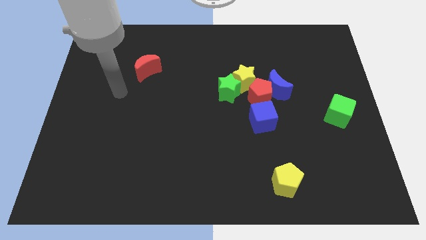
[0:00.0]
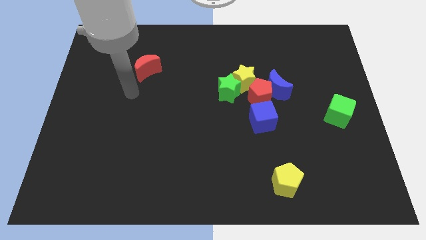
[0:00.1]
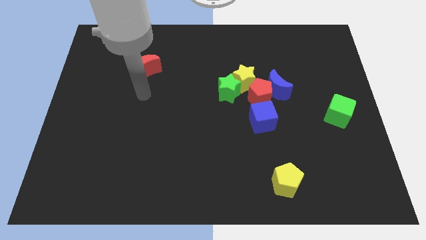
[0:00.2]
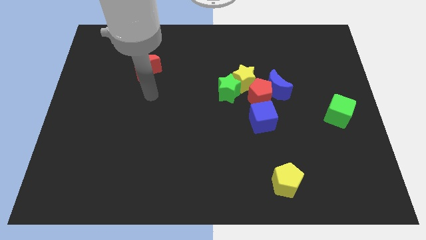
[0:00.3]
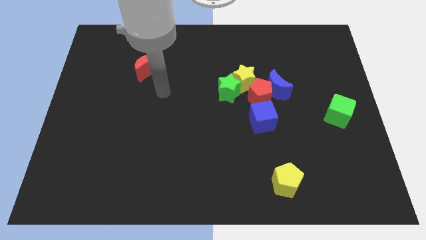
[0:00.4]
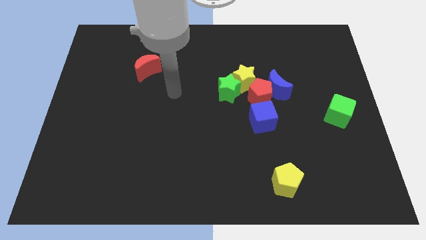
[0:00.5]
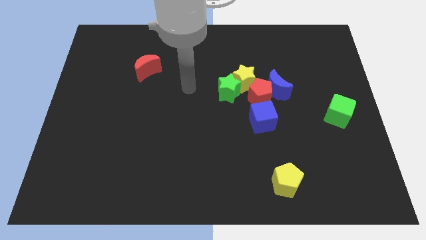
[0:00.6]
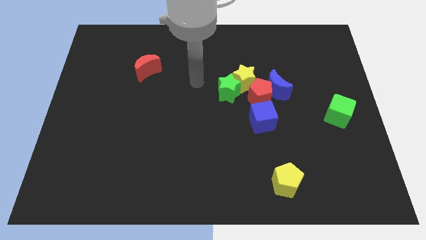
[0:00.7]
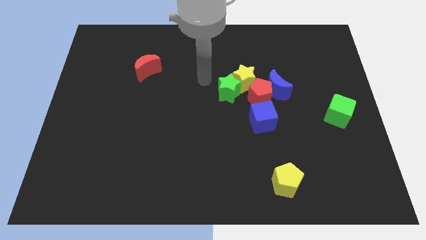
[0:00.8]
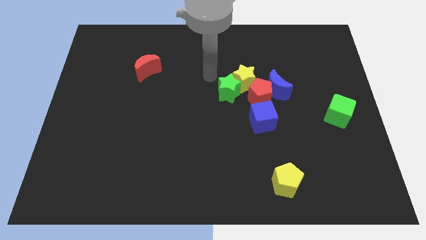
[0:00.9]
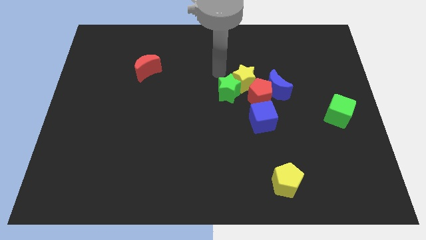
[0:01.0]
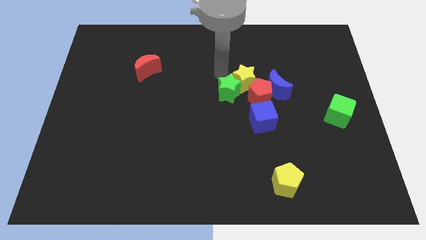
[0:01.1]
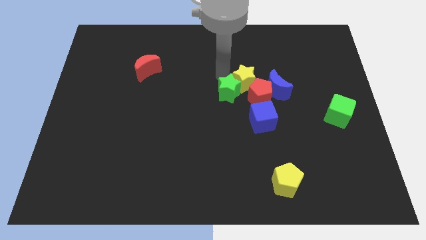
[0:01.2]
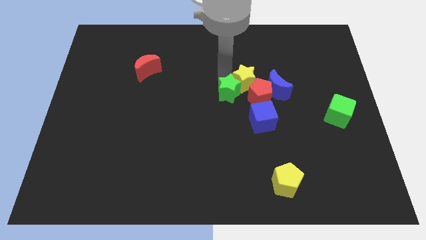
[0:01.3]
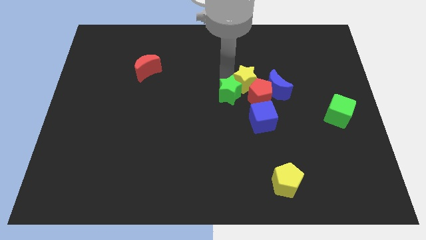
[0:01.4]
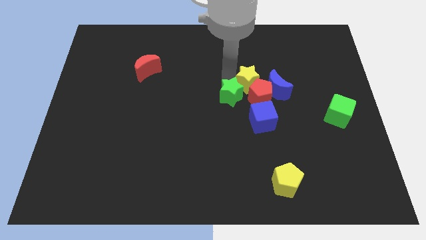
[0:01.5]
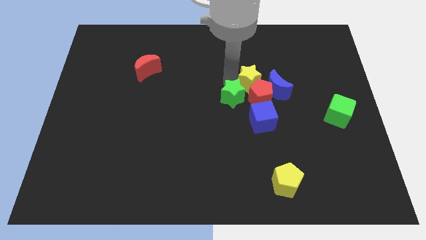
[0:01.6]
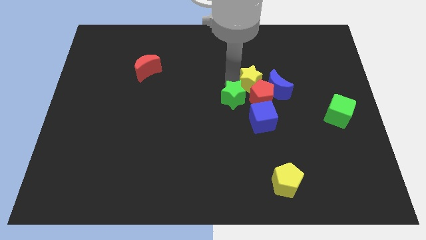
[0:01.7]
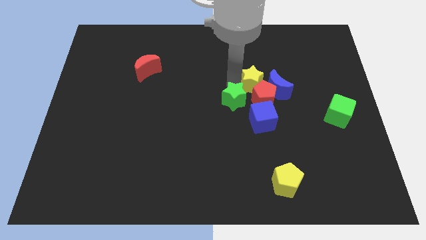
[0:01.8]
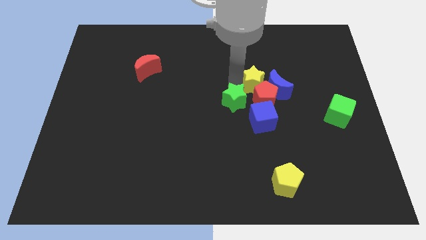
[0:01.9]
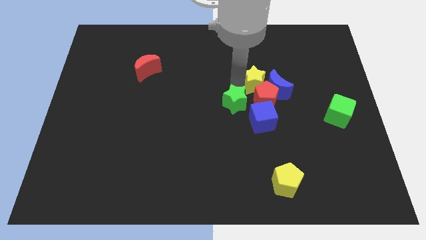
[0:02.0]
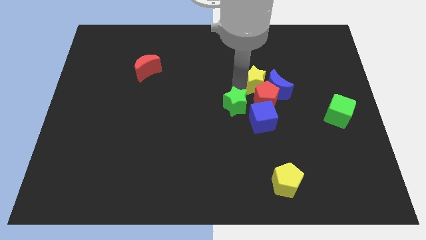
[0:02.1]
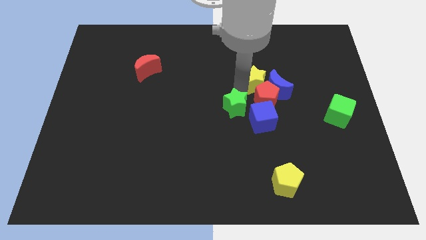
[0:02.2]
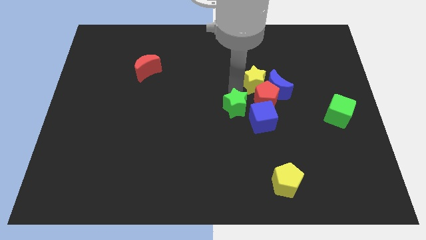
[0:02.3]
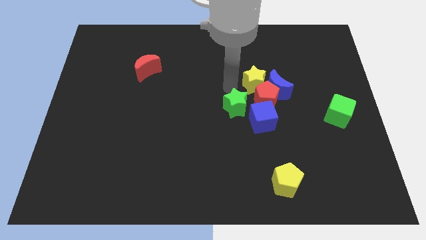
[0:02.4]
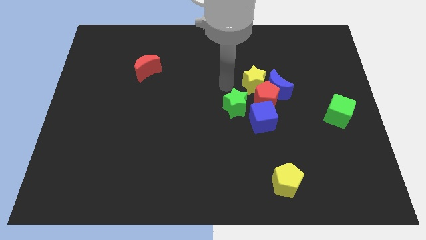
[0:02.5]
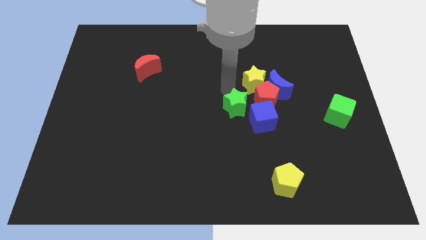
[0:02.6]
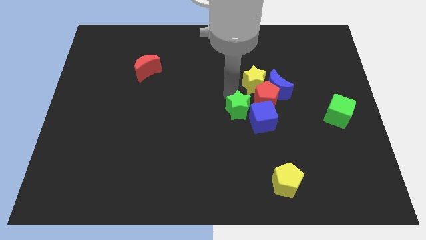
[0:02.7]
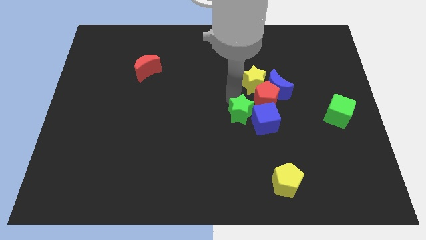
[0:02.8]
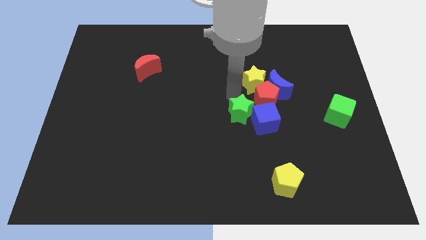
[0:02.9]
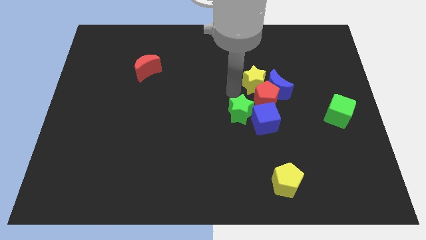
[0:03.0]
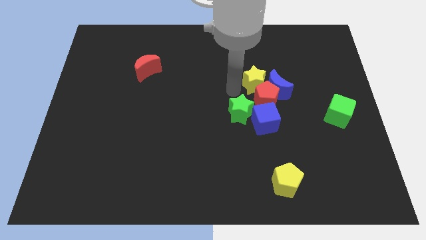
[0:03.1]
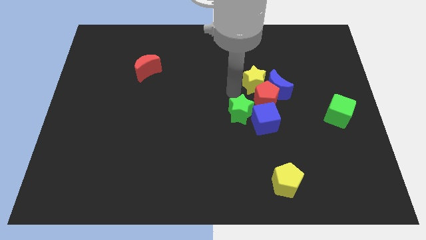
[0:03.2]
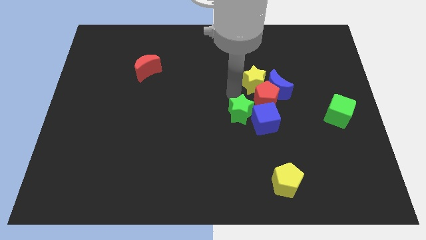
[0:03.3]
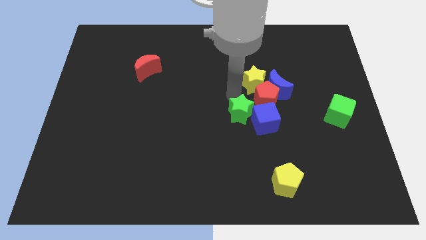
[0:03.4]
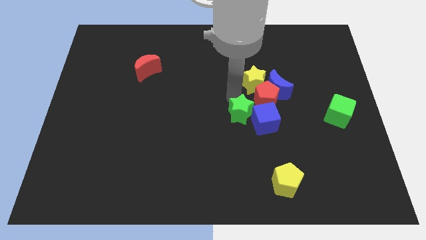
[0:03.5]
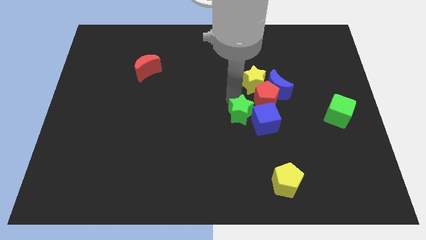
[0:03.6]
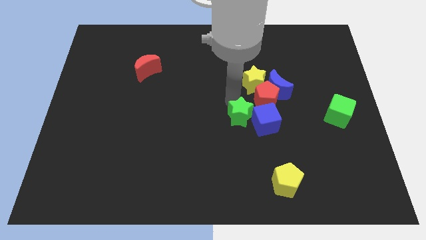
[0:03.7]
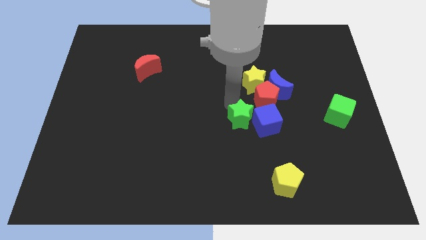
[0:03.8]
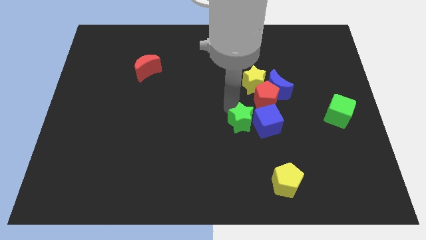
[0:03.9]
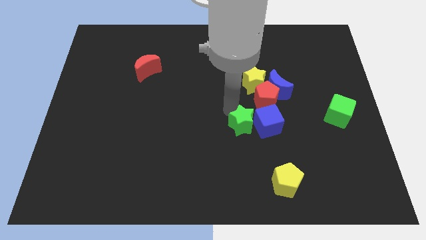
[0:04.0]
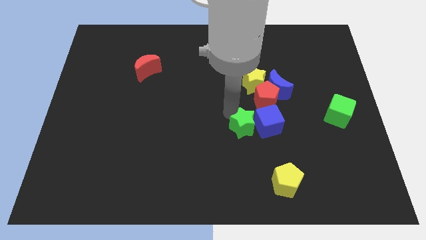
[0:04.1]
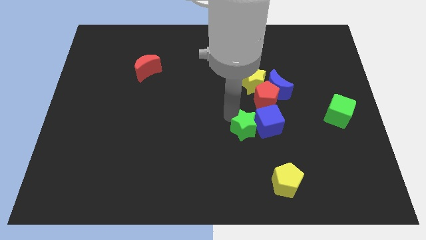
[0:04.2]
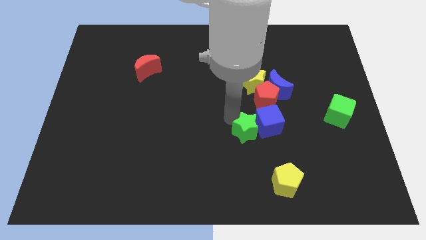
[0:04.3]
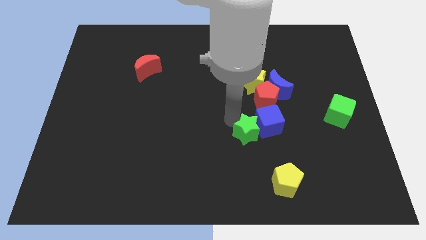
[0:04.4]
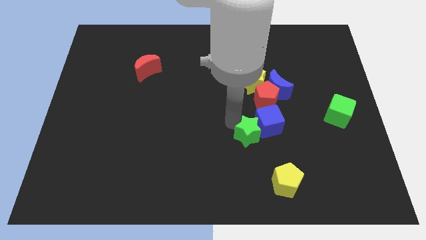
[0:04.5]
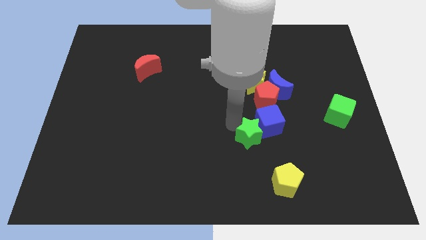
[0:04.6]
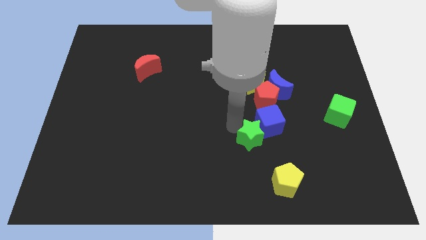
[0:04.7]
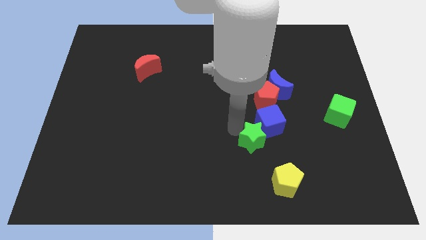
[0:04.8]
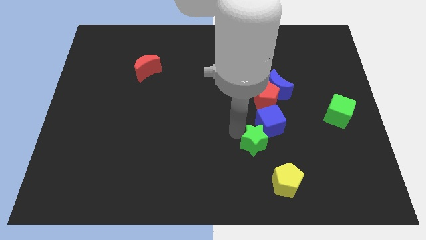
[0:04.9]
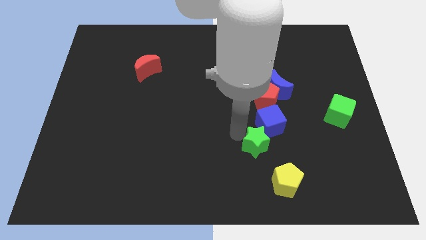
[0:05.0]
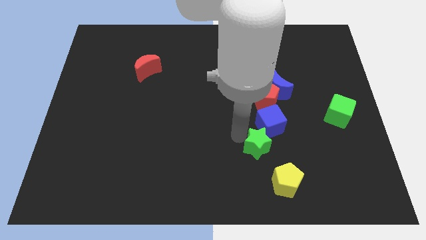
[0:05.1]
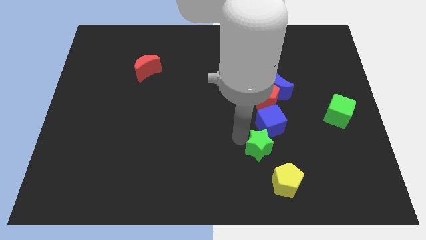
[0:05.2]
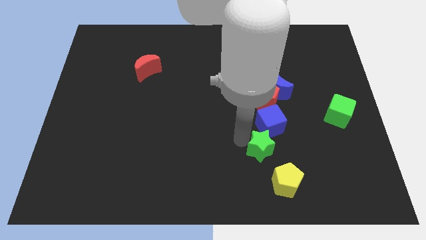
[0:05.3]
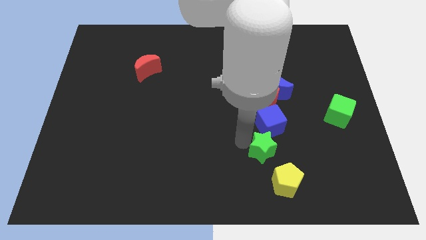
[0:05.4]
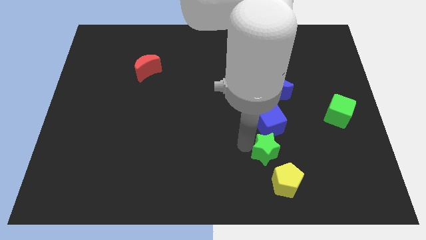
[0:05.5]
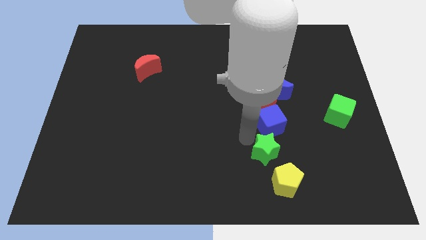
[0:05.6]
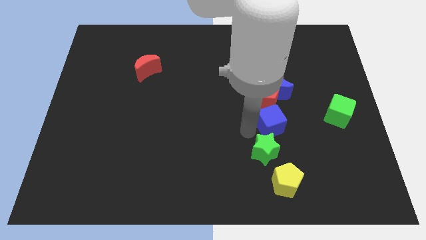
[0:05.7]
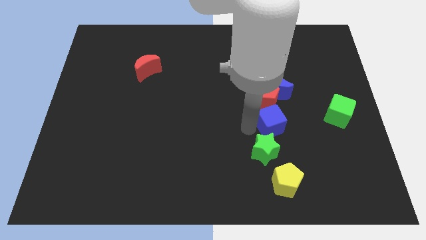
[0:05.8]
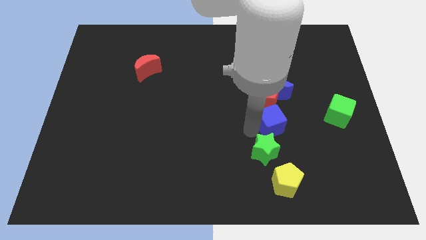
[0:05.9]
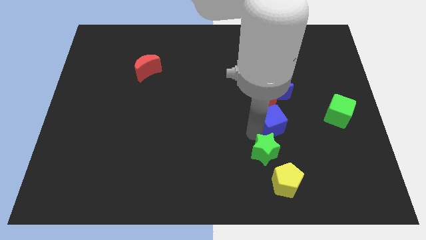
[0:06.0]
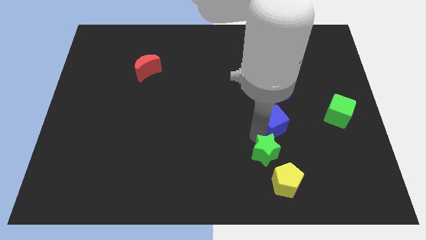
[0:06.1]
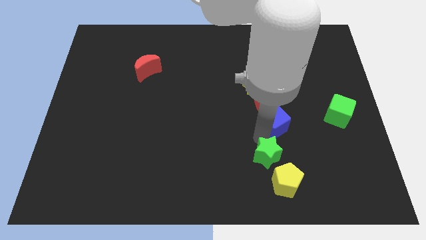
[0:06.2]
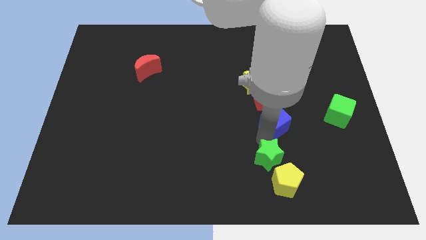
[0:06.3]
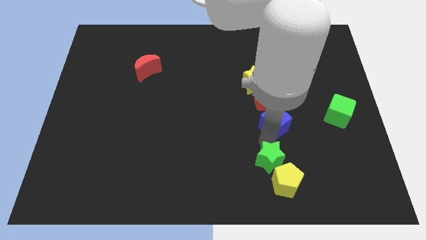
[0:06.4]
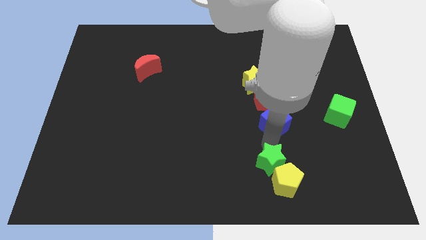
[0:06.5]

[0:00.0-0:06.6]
move the green star towards the yellow pentagon
